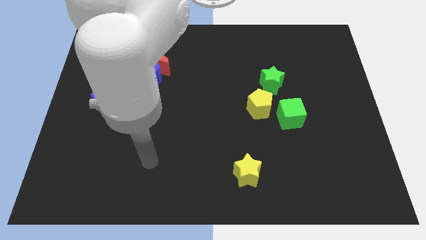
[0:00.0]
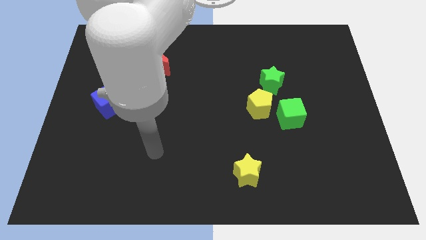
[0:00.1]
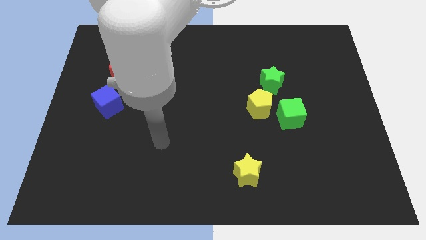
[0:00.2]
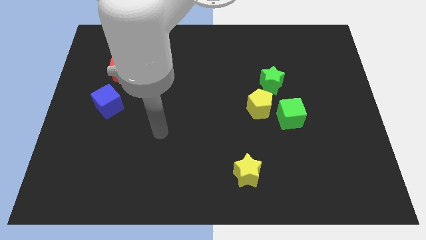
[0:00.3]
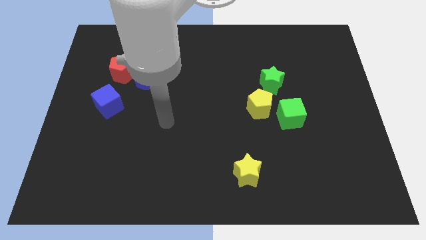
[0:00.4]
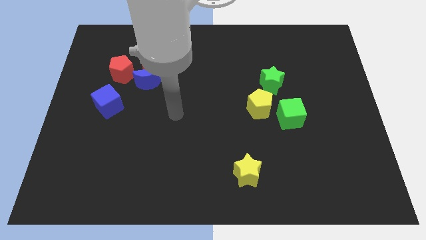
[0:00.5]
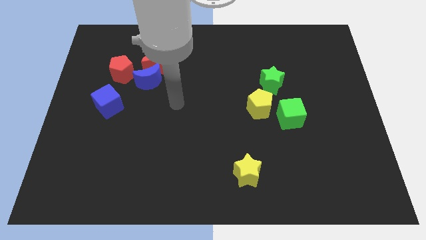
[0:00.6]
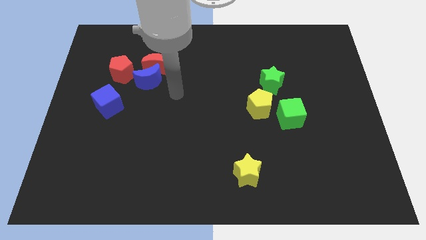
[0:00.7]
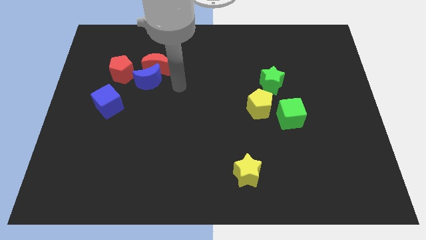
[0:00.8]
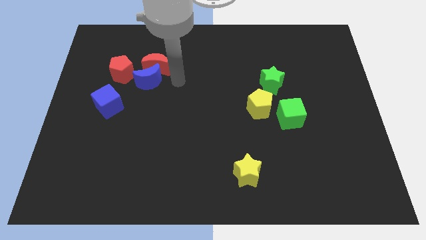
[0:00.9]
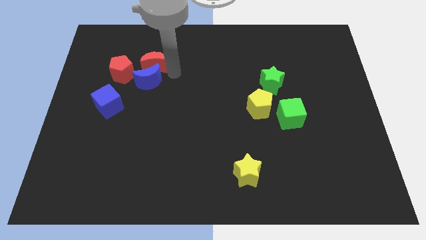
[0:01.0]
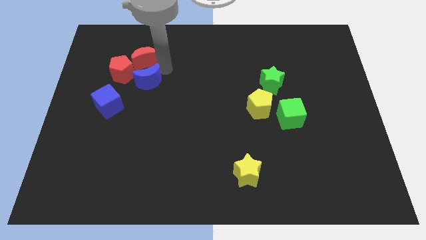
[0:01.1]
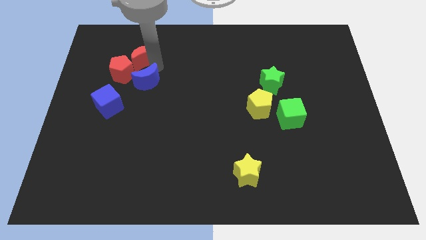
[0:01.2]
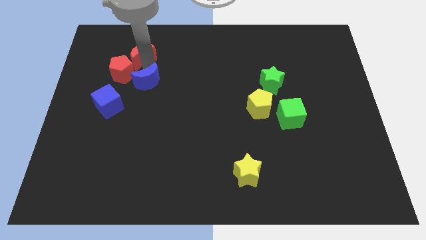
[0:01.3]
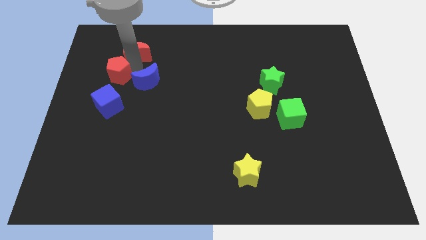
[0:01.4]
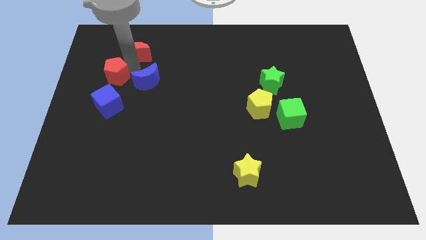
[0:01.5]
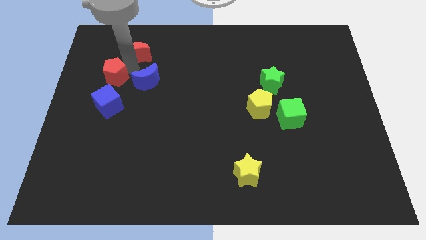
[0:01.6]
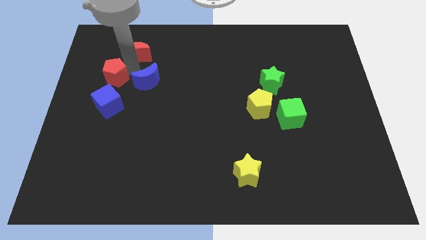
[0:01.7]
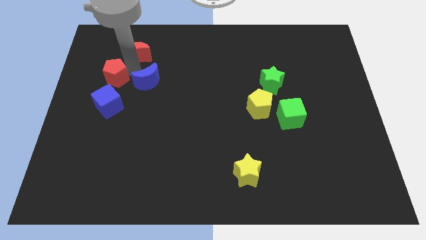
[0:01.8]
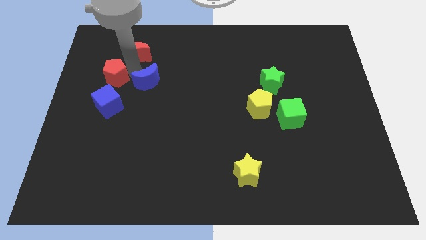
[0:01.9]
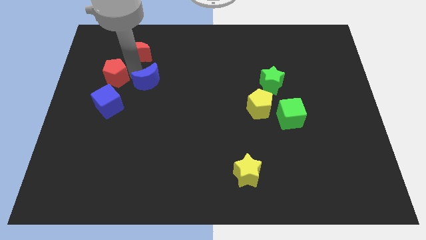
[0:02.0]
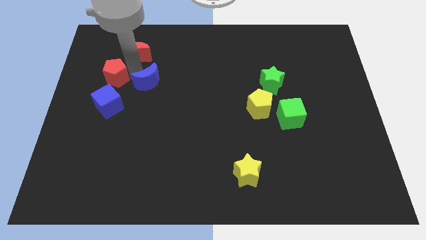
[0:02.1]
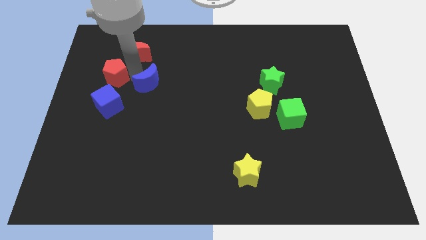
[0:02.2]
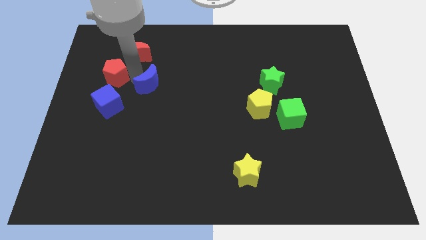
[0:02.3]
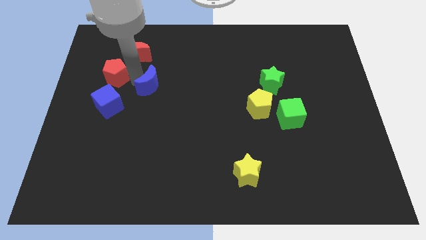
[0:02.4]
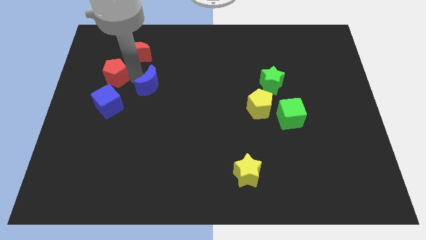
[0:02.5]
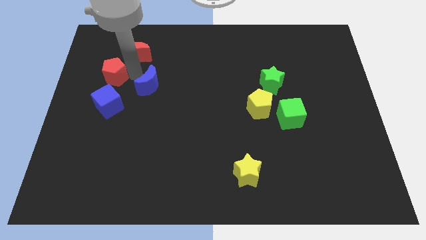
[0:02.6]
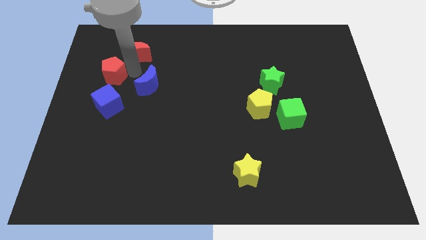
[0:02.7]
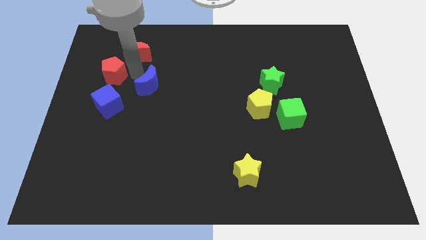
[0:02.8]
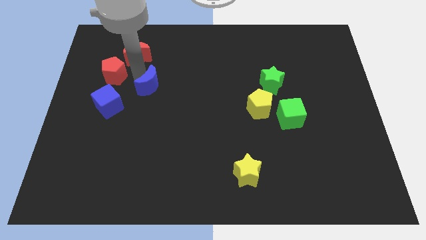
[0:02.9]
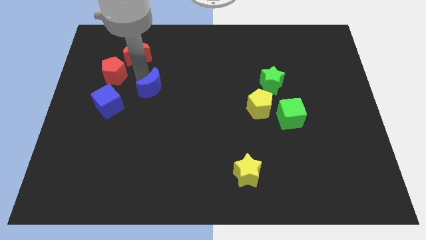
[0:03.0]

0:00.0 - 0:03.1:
separate the blue moon from the red moon and red pentagon

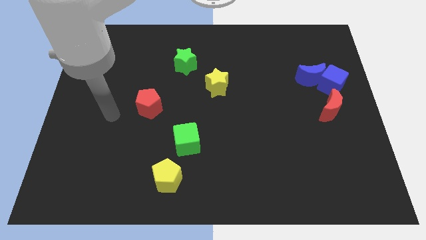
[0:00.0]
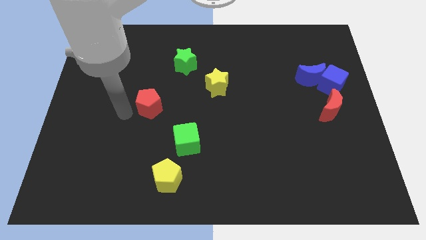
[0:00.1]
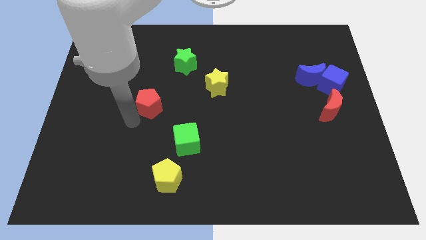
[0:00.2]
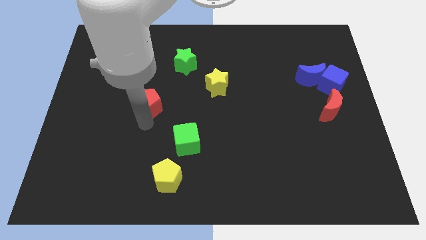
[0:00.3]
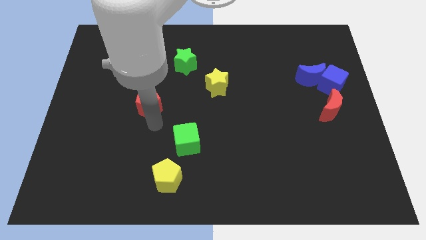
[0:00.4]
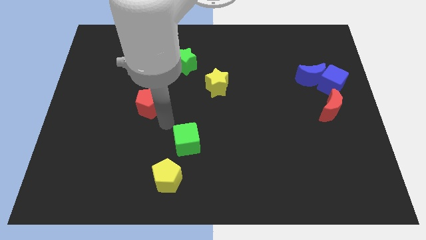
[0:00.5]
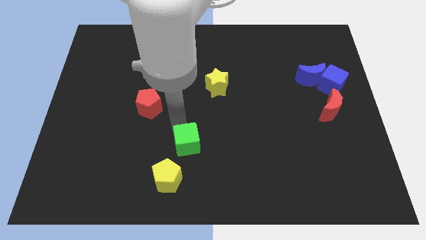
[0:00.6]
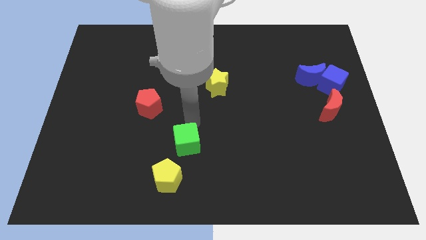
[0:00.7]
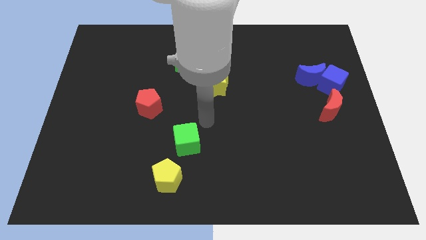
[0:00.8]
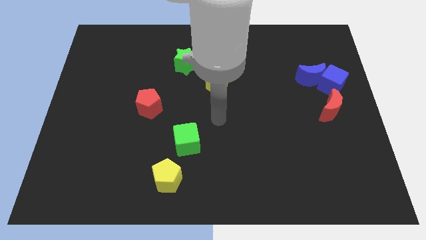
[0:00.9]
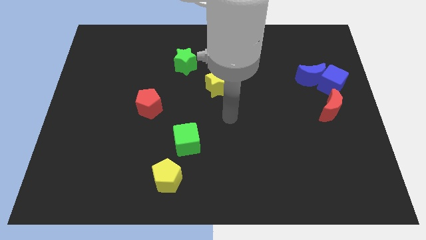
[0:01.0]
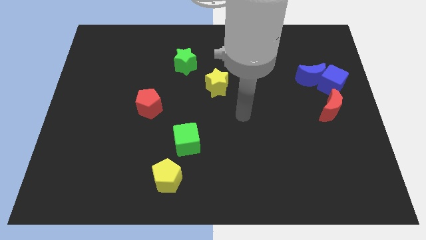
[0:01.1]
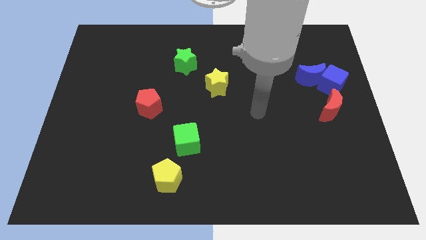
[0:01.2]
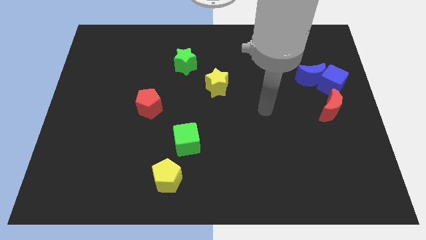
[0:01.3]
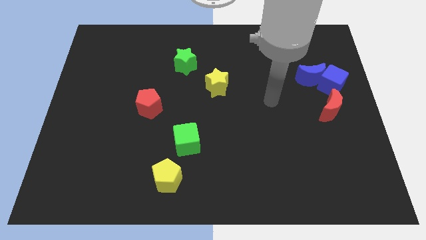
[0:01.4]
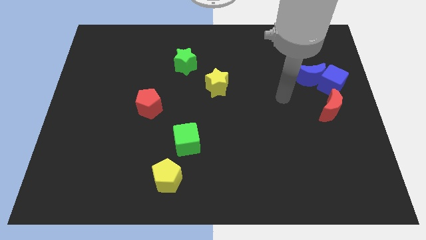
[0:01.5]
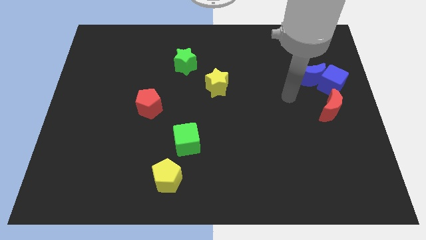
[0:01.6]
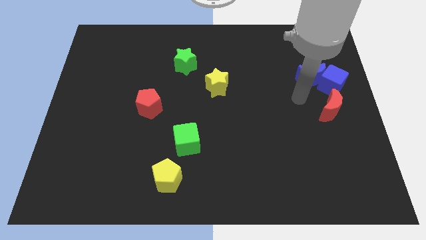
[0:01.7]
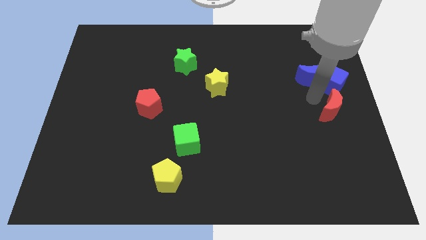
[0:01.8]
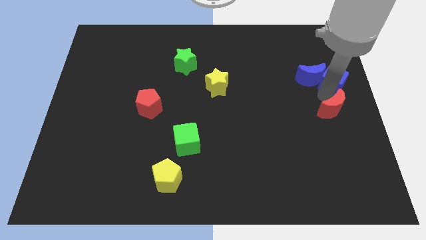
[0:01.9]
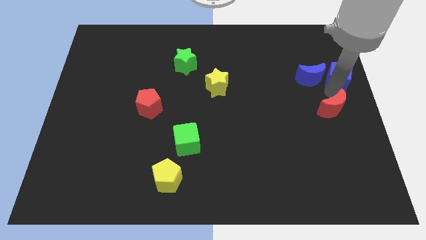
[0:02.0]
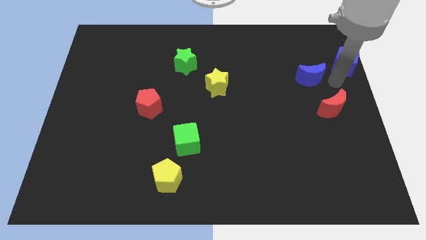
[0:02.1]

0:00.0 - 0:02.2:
separate the blue moon from the blue cube

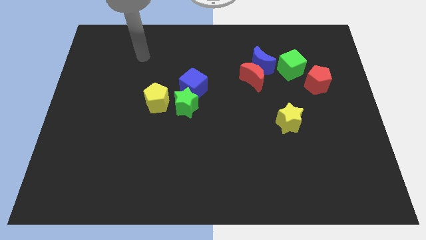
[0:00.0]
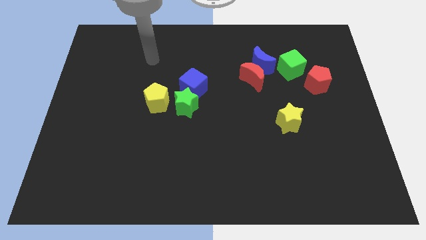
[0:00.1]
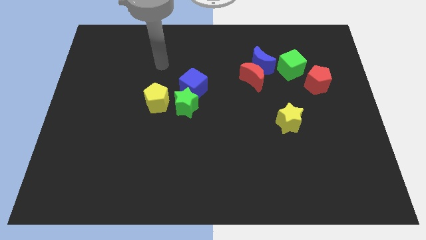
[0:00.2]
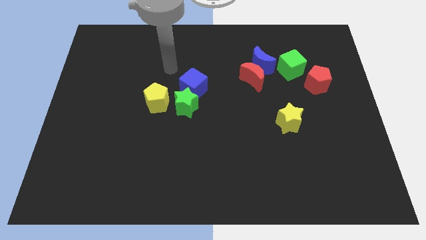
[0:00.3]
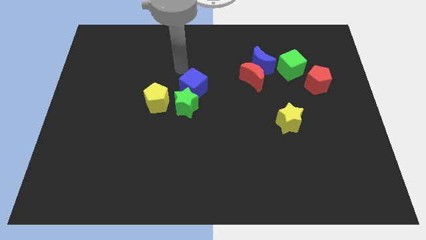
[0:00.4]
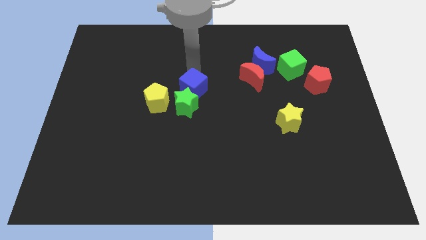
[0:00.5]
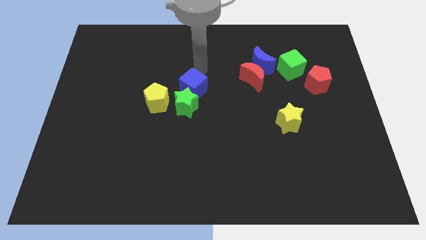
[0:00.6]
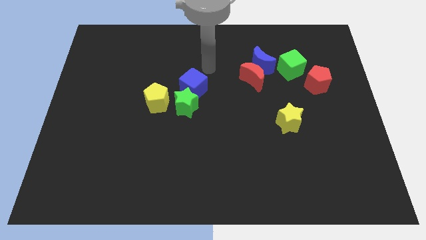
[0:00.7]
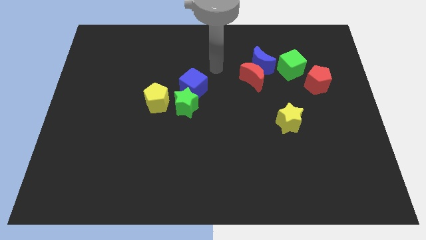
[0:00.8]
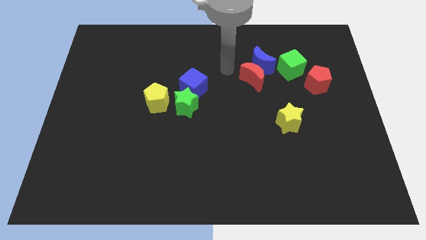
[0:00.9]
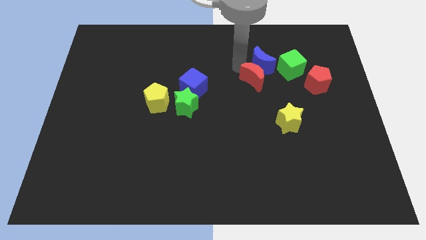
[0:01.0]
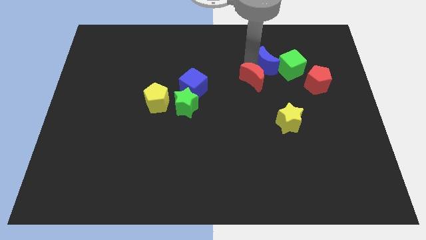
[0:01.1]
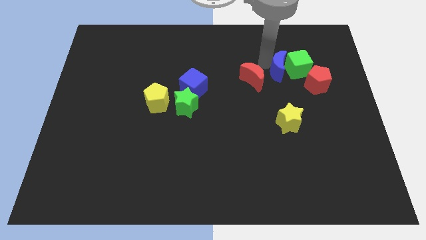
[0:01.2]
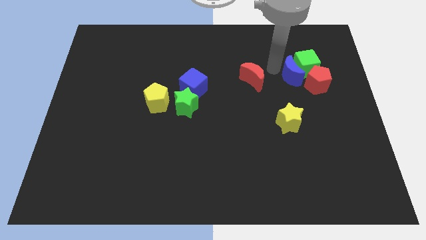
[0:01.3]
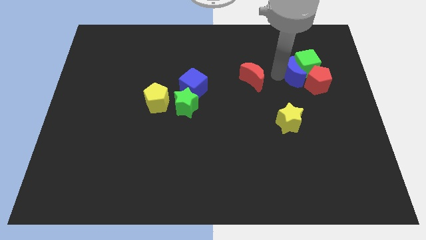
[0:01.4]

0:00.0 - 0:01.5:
move the red moon away from the blue moon

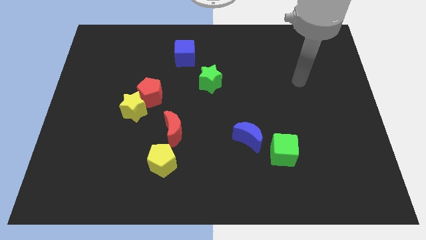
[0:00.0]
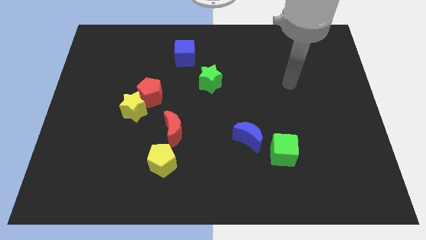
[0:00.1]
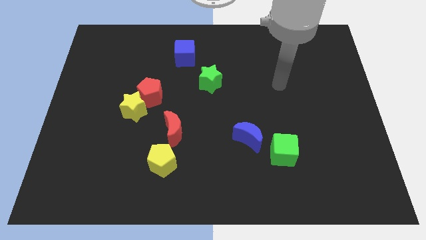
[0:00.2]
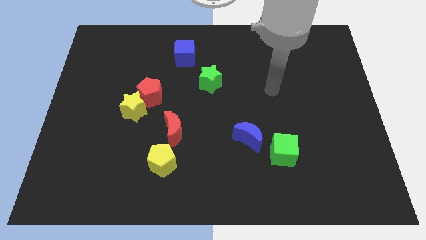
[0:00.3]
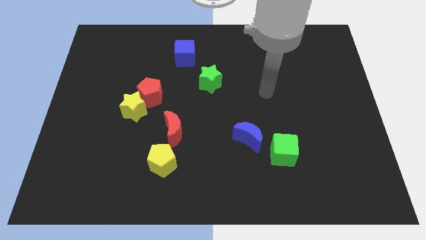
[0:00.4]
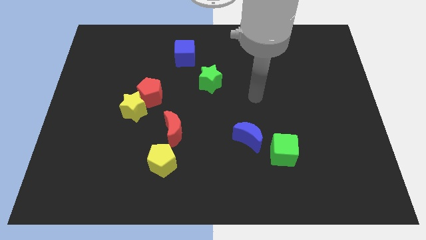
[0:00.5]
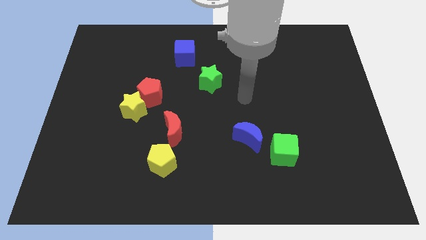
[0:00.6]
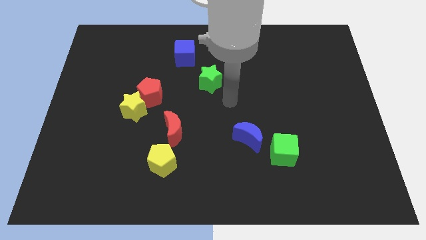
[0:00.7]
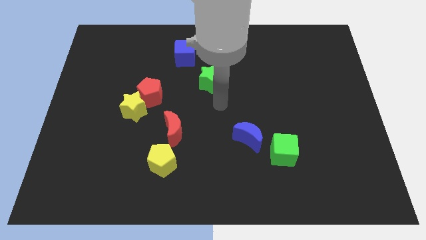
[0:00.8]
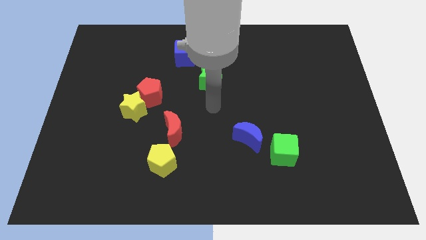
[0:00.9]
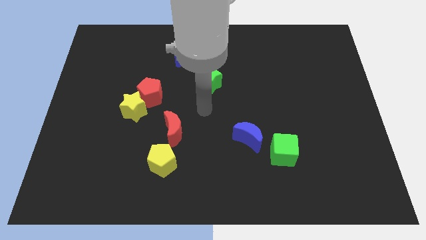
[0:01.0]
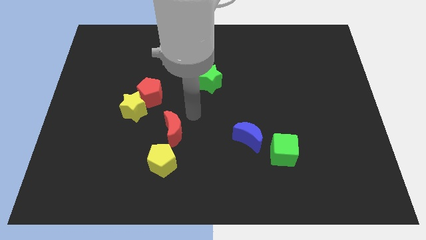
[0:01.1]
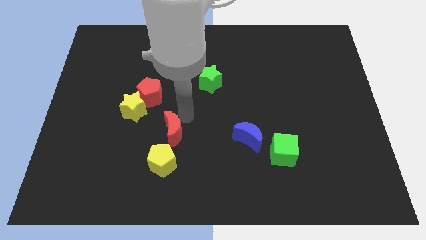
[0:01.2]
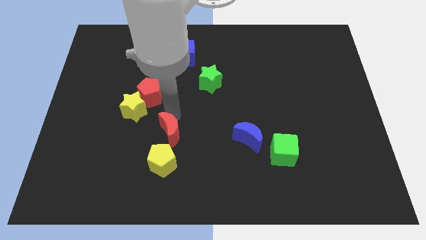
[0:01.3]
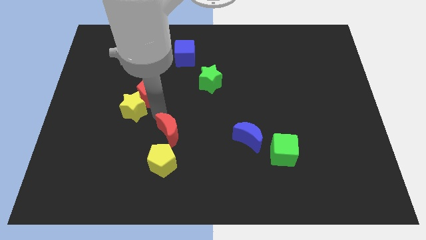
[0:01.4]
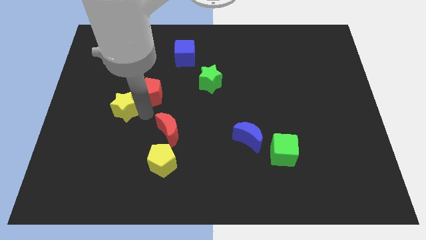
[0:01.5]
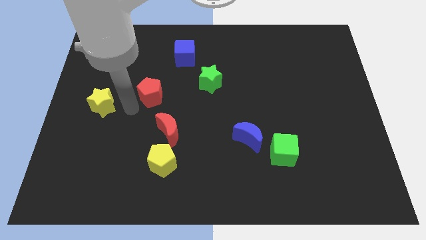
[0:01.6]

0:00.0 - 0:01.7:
move the red pentagon away from the yellow star

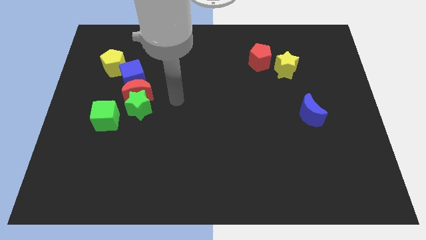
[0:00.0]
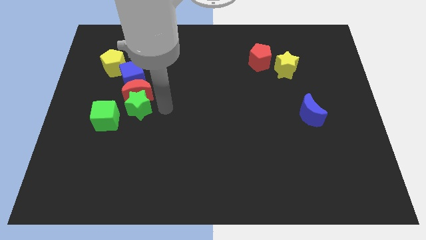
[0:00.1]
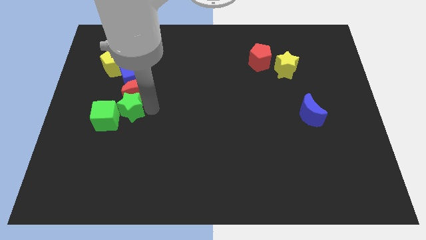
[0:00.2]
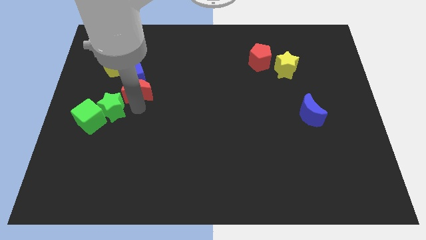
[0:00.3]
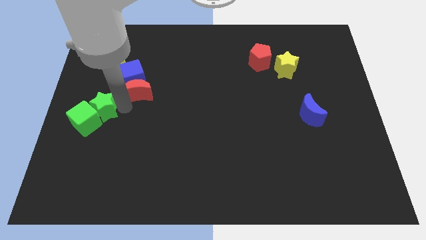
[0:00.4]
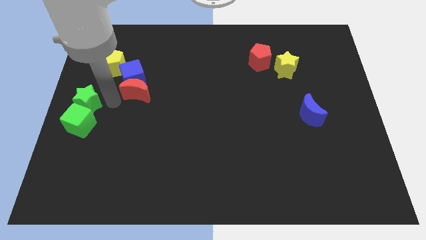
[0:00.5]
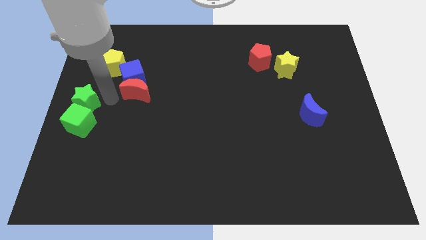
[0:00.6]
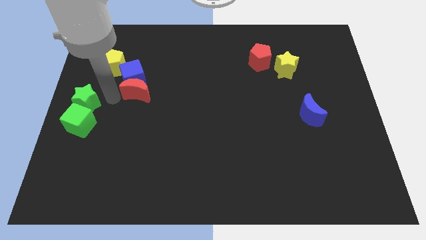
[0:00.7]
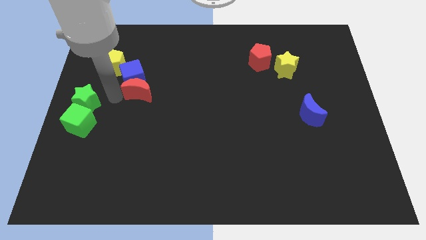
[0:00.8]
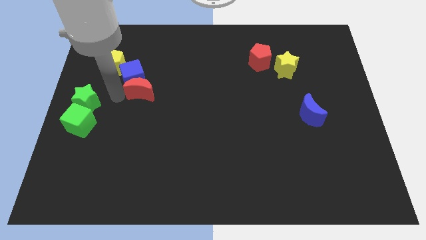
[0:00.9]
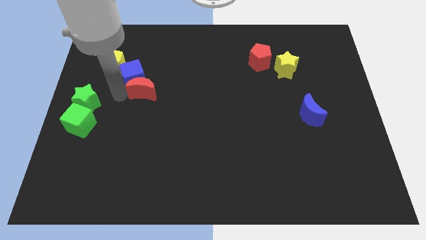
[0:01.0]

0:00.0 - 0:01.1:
pull the red moon apart from the group of blocks
